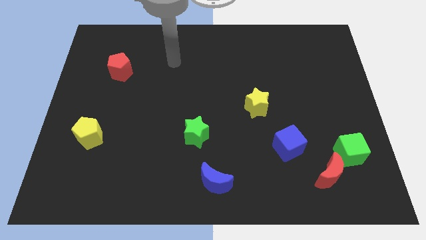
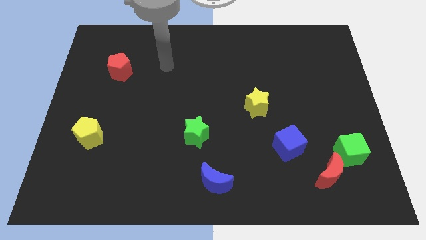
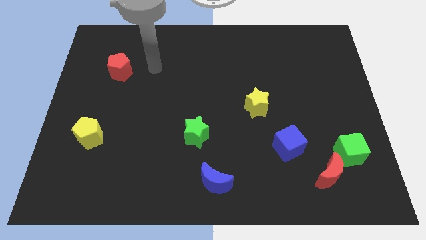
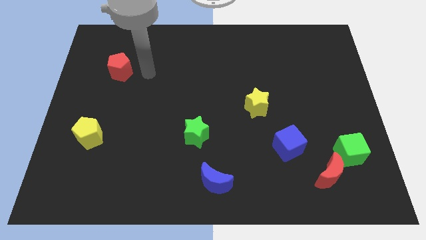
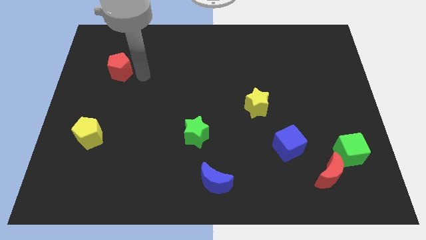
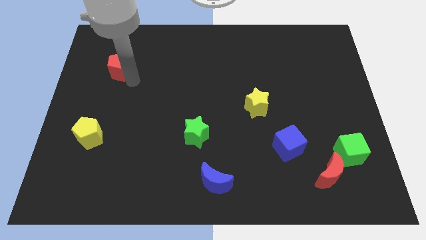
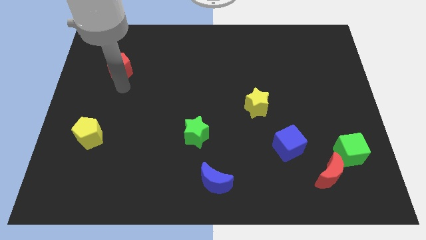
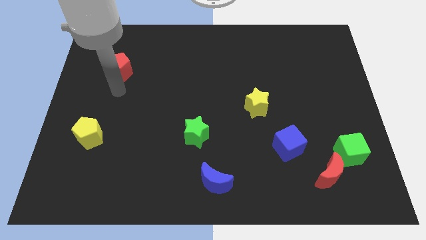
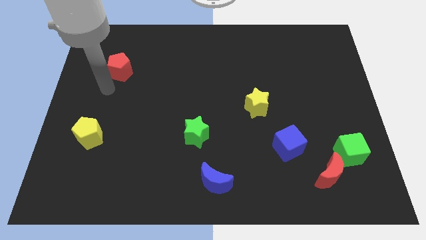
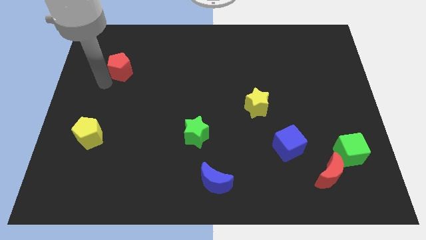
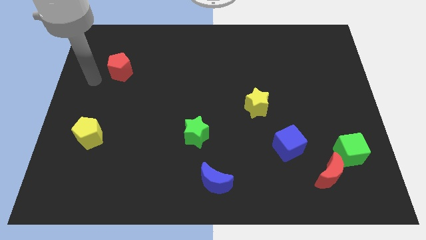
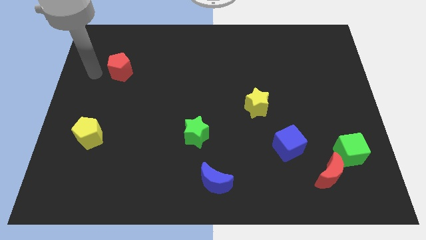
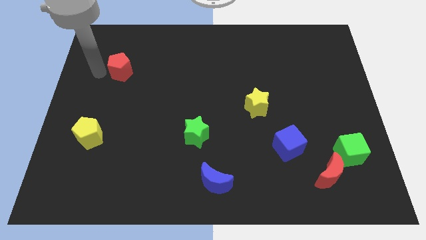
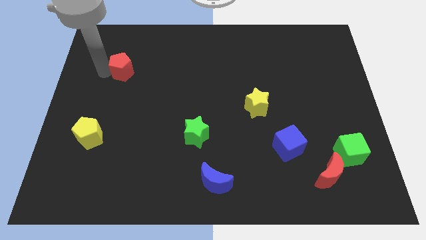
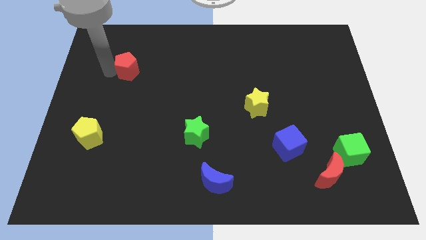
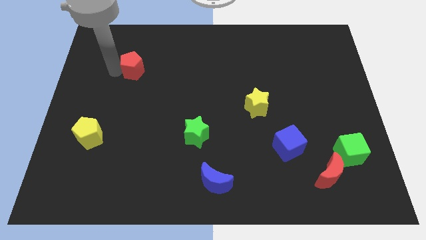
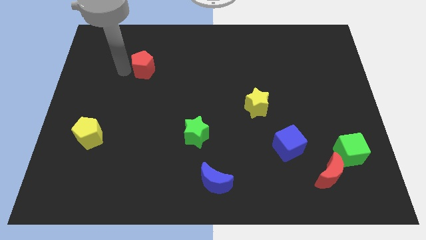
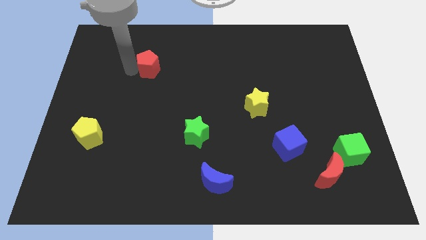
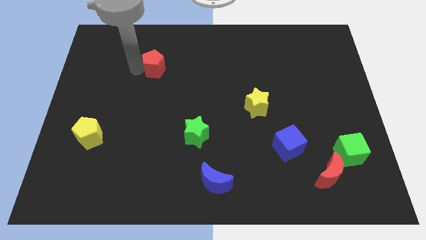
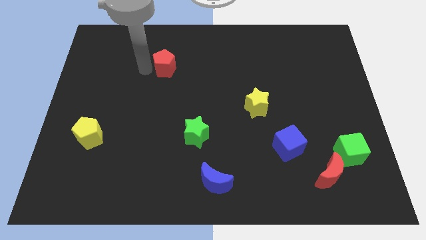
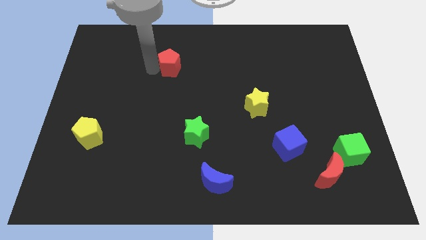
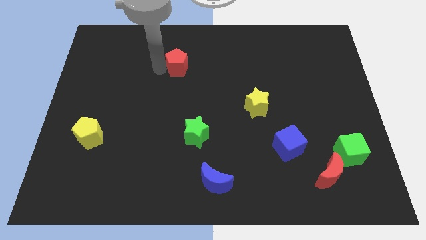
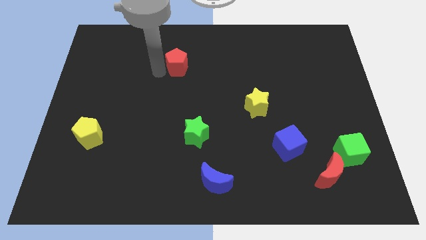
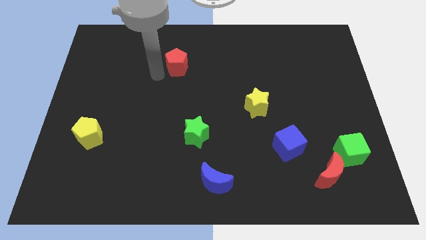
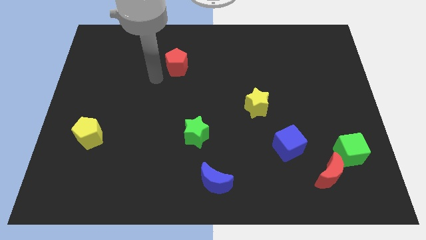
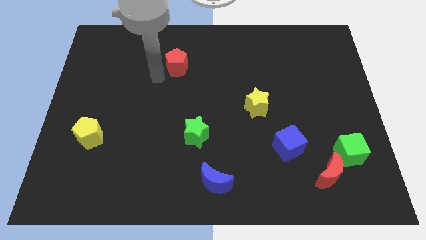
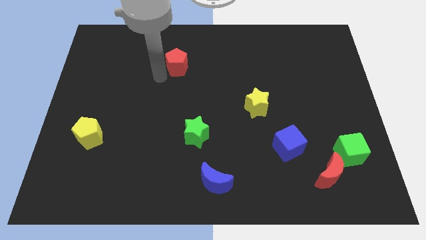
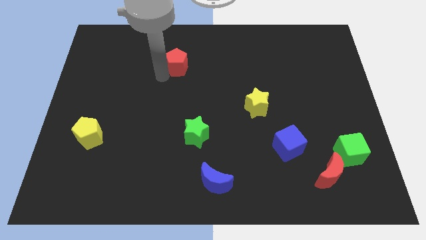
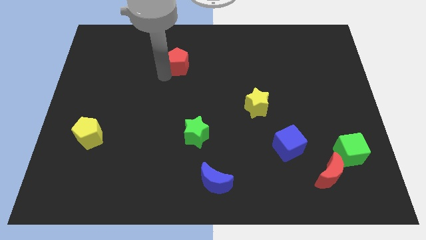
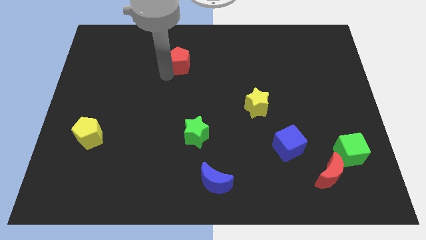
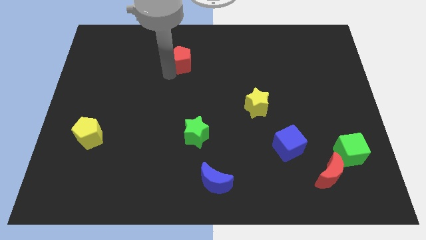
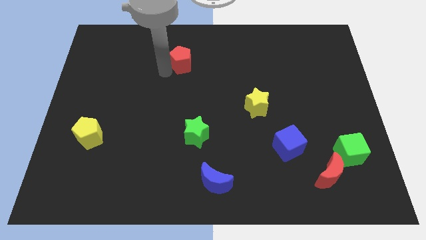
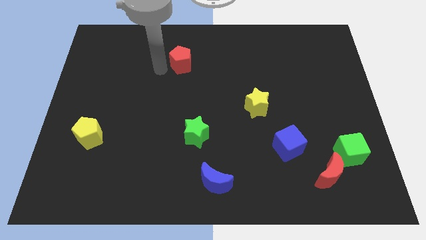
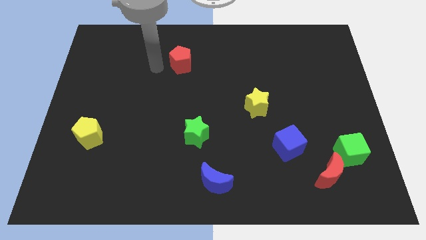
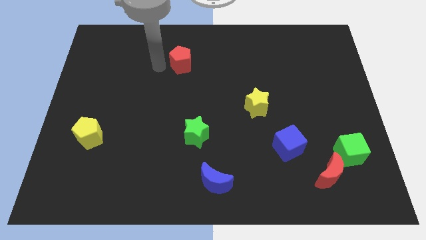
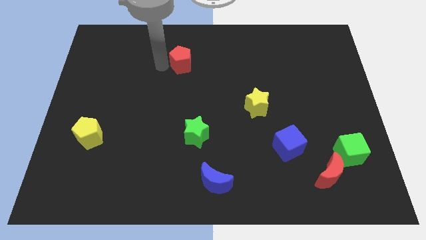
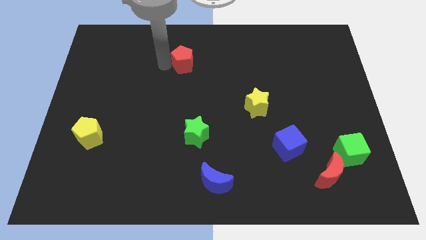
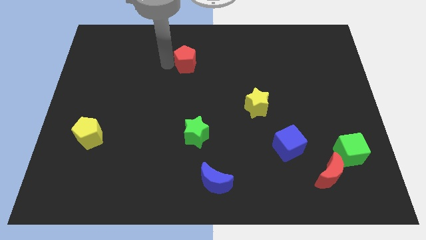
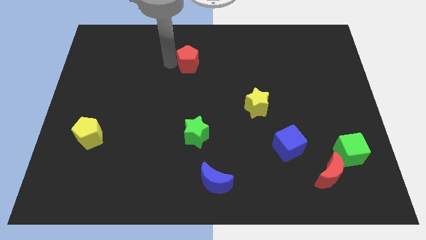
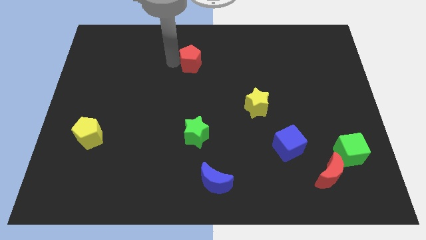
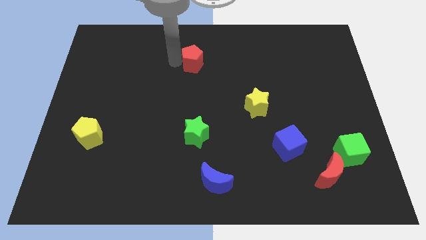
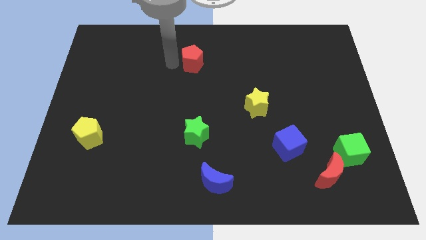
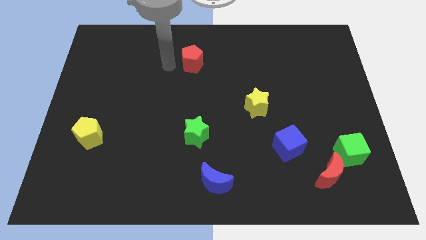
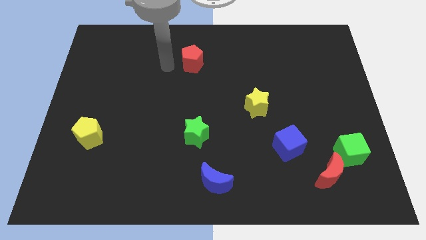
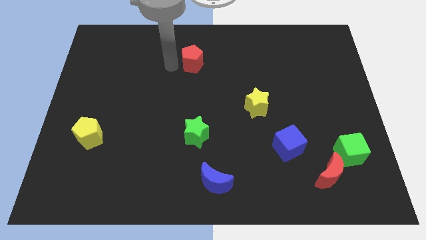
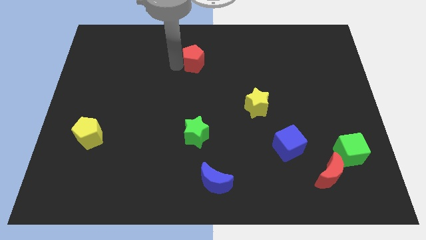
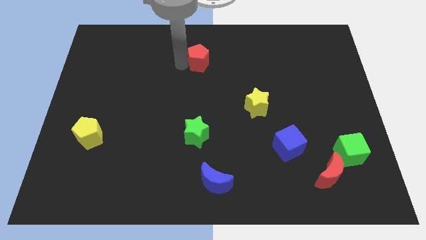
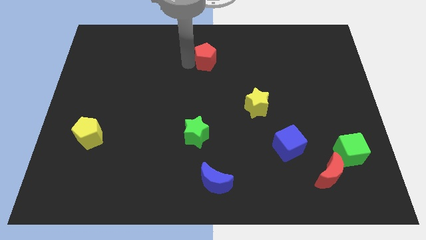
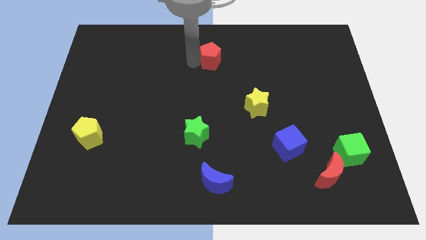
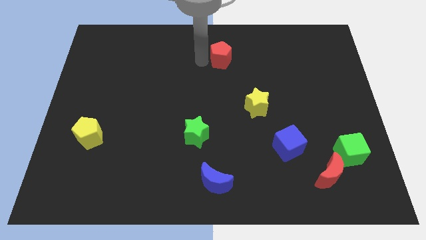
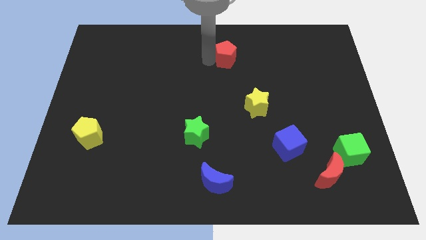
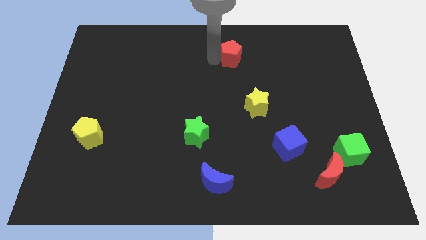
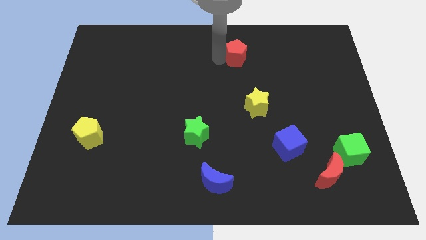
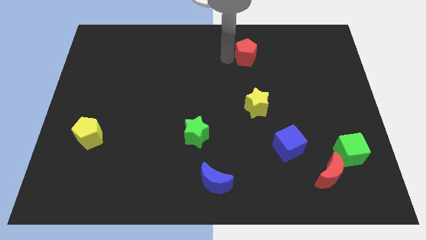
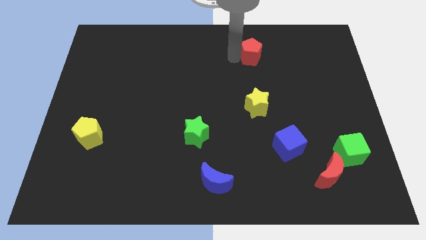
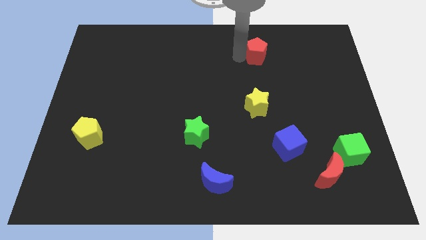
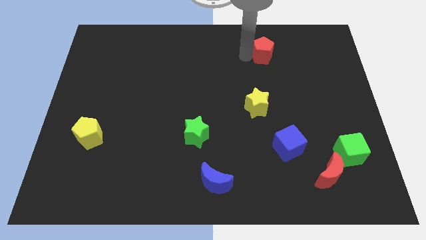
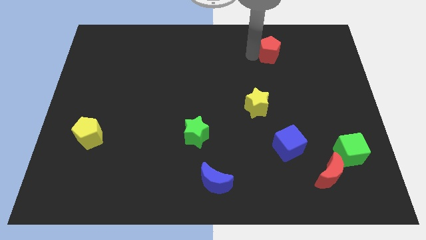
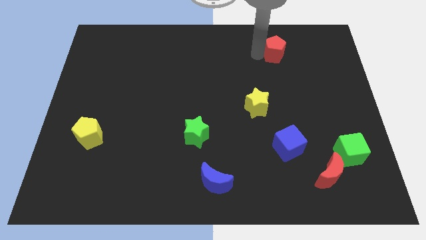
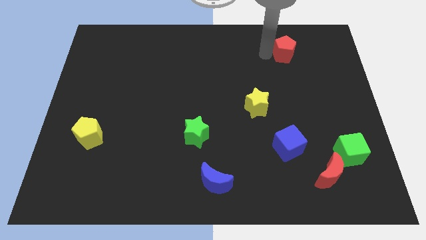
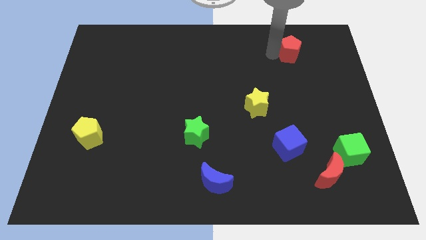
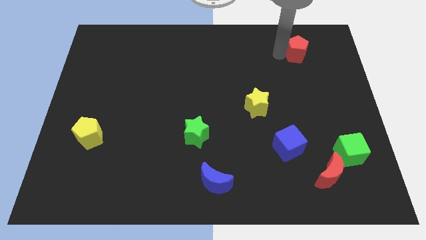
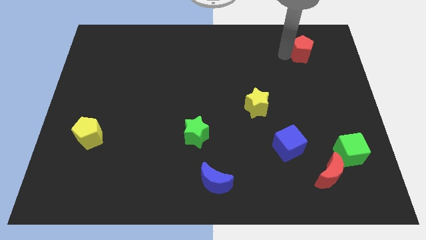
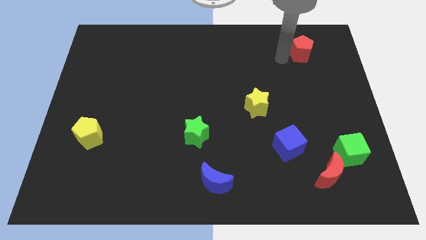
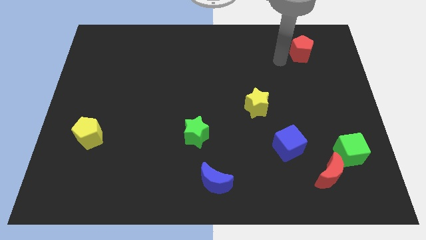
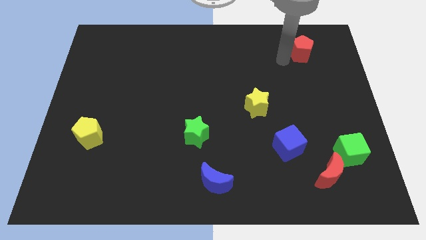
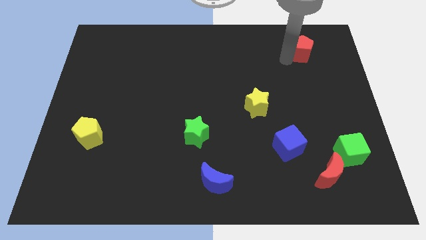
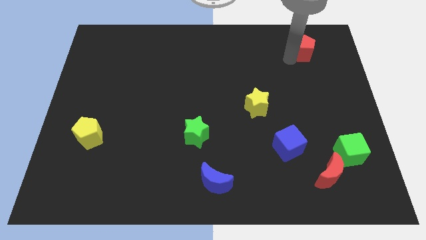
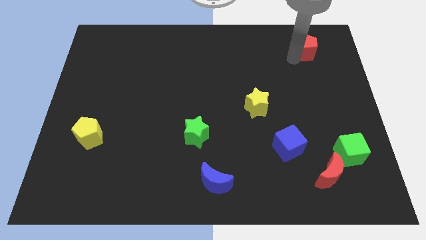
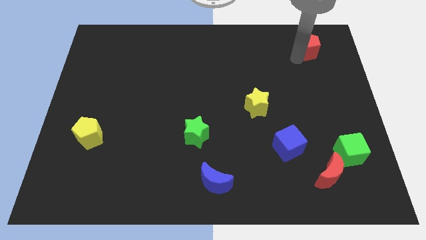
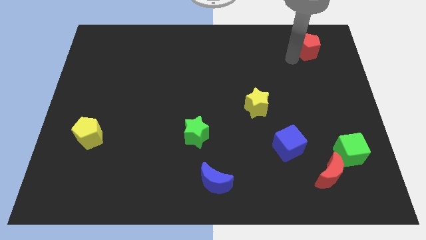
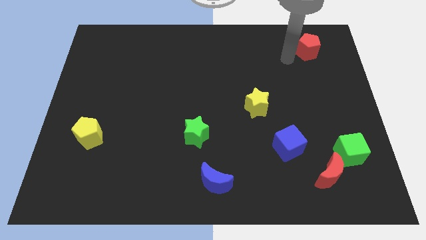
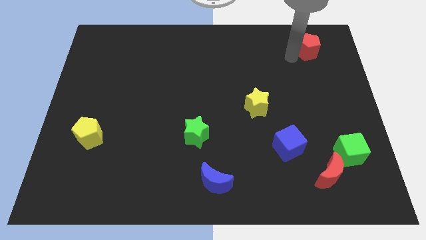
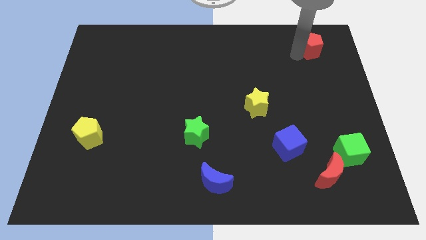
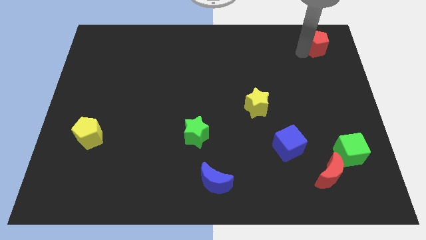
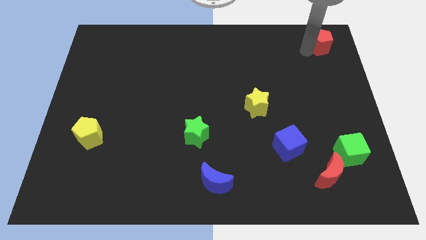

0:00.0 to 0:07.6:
put the red pentagon to the top right of the board
